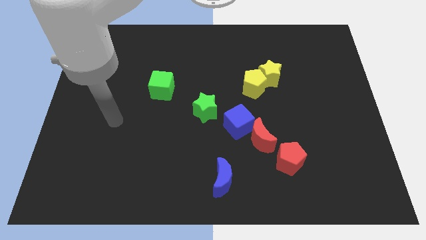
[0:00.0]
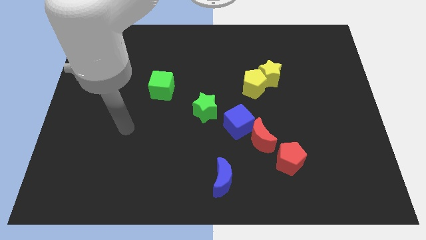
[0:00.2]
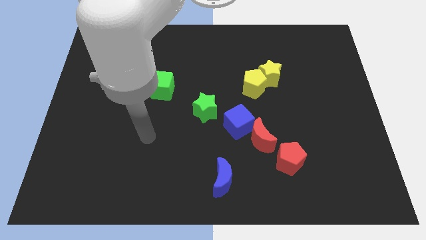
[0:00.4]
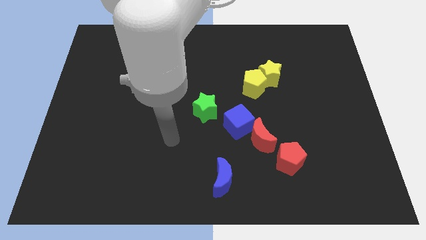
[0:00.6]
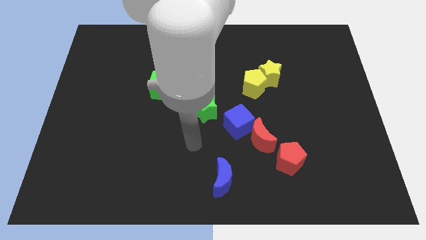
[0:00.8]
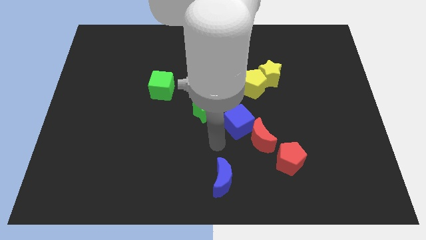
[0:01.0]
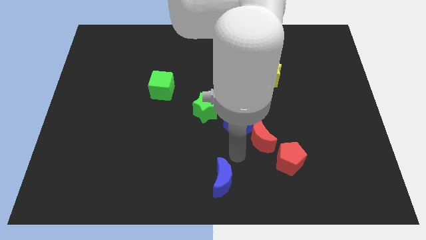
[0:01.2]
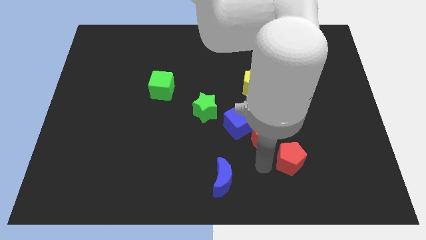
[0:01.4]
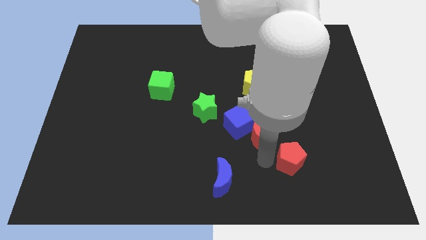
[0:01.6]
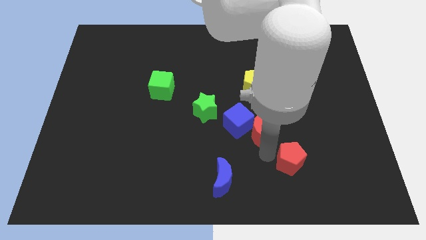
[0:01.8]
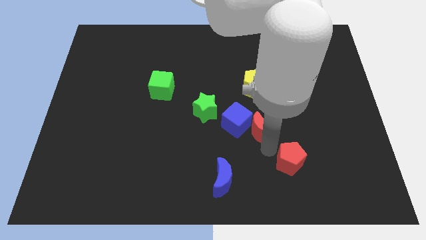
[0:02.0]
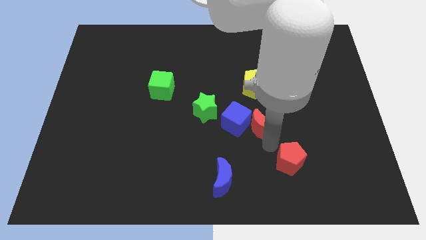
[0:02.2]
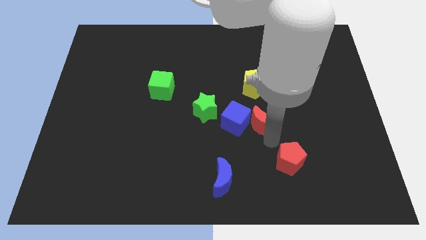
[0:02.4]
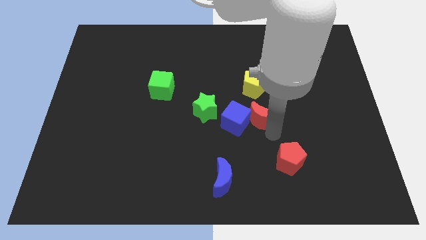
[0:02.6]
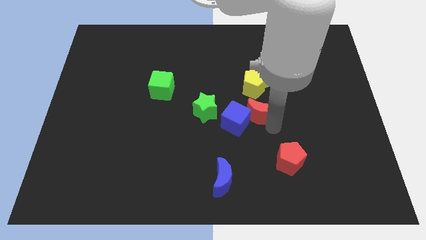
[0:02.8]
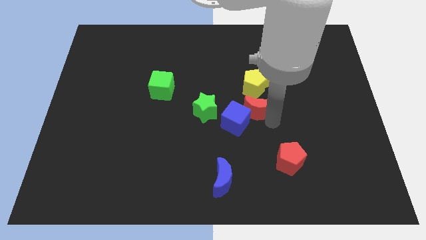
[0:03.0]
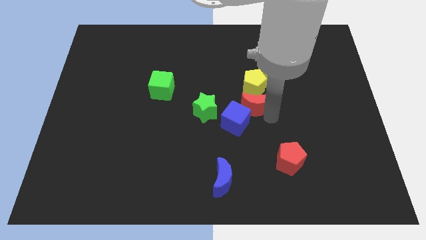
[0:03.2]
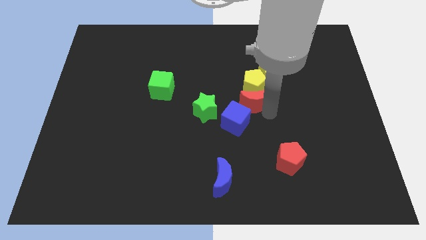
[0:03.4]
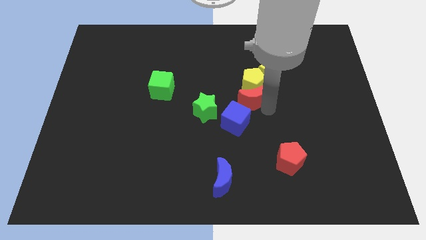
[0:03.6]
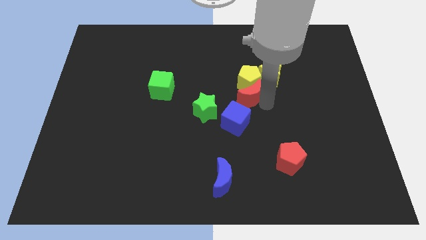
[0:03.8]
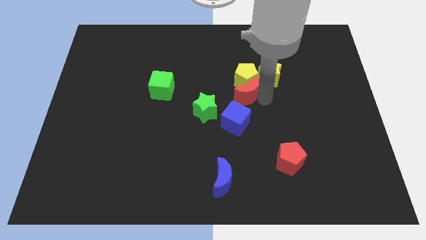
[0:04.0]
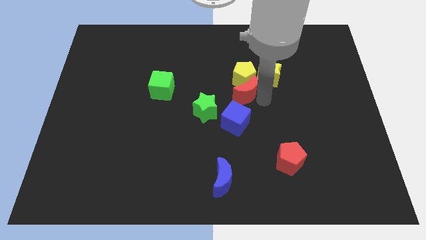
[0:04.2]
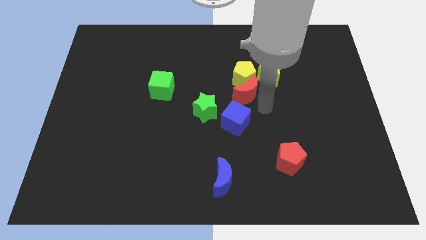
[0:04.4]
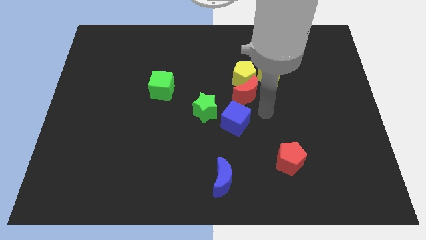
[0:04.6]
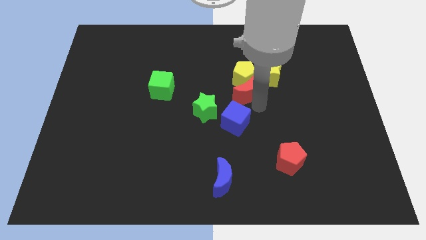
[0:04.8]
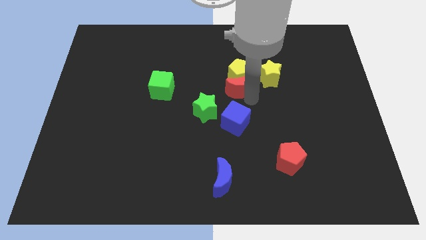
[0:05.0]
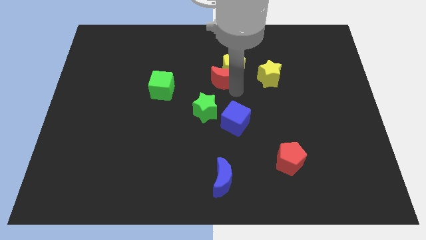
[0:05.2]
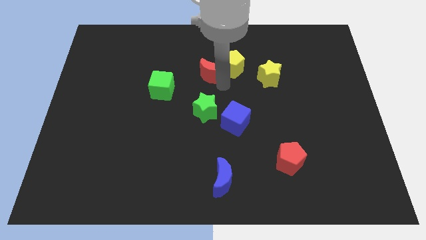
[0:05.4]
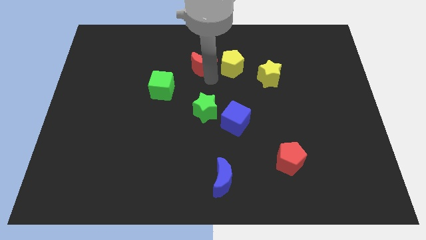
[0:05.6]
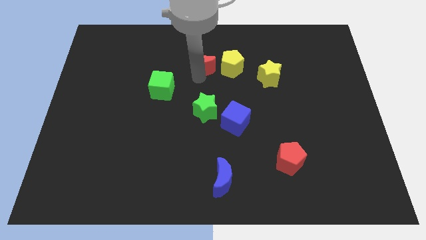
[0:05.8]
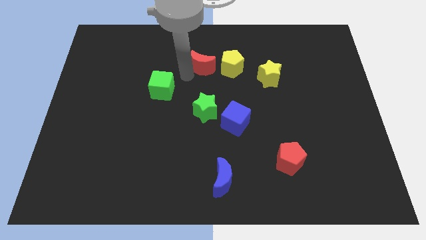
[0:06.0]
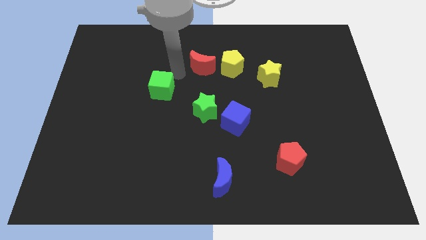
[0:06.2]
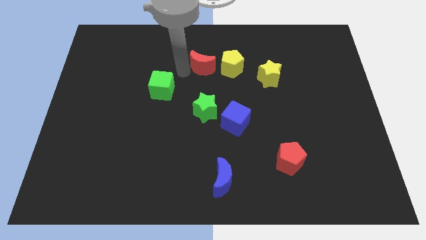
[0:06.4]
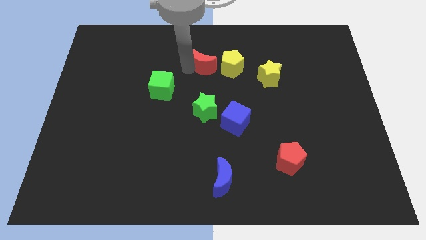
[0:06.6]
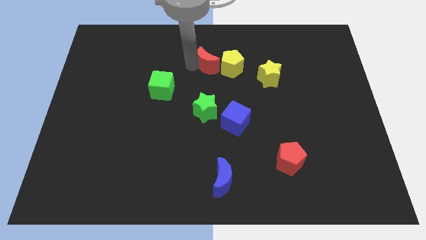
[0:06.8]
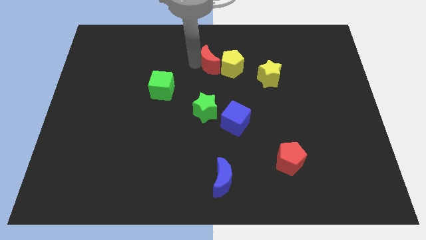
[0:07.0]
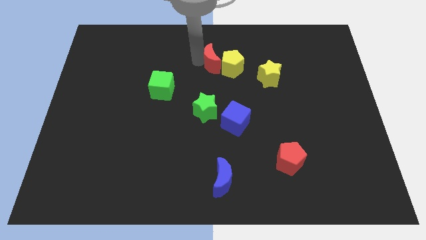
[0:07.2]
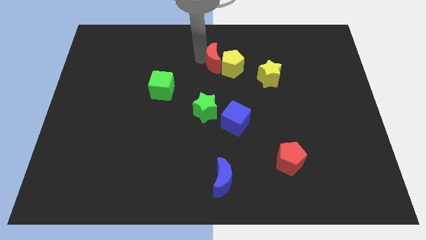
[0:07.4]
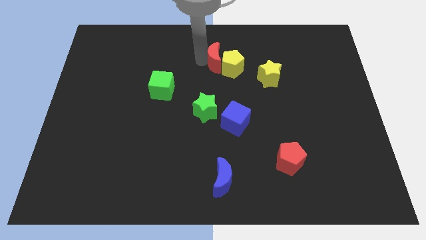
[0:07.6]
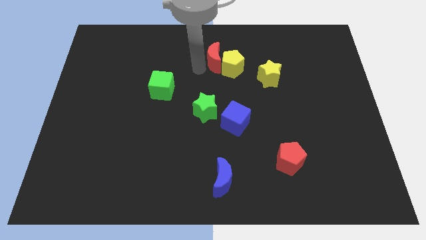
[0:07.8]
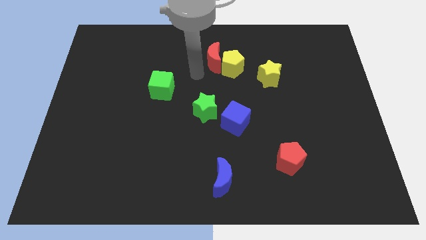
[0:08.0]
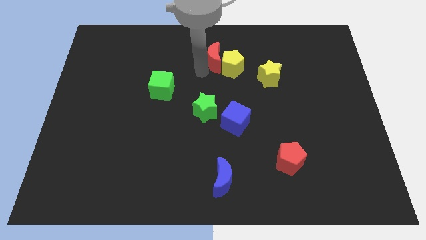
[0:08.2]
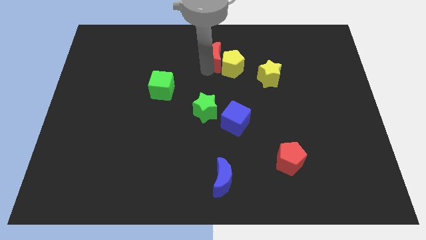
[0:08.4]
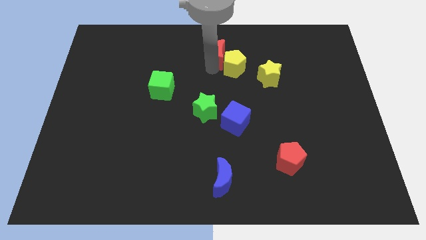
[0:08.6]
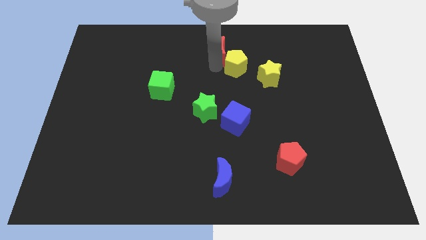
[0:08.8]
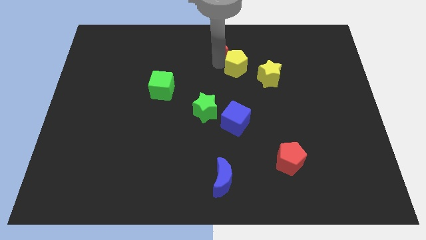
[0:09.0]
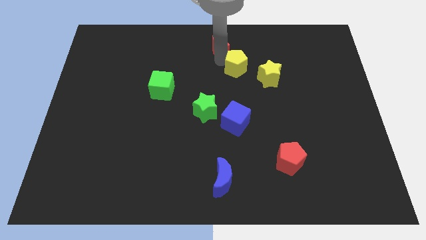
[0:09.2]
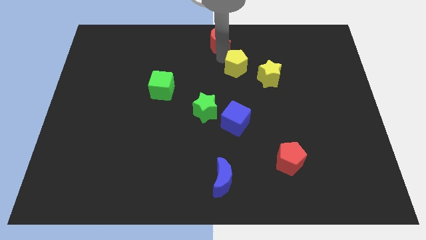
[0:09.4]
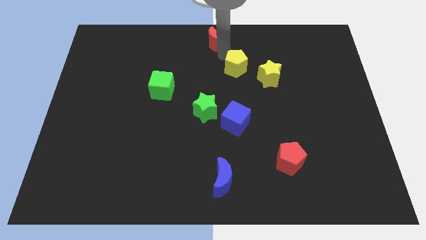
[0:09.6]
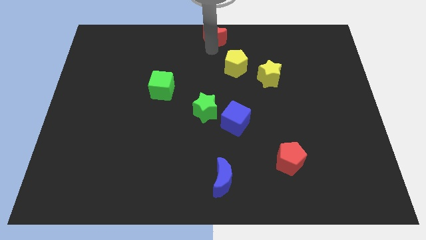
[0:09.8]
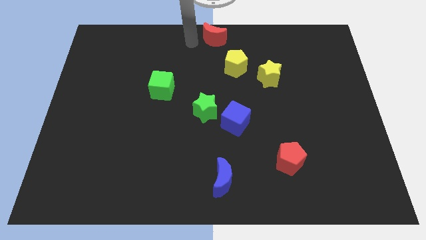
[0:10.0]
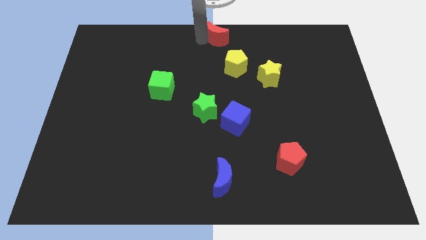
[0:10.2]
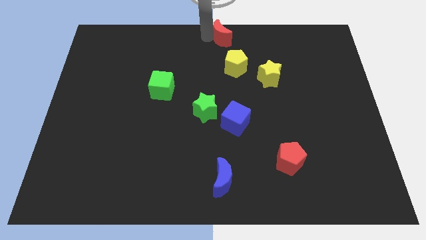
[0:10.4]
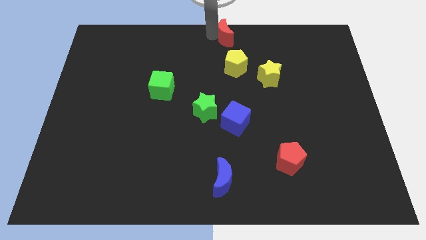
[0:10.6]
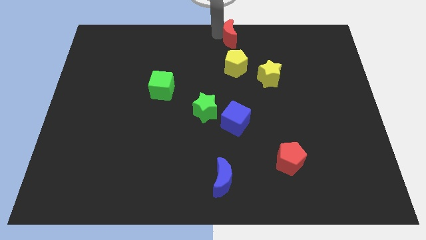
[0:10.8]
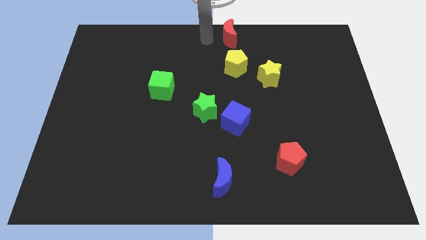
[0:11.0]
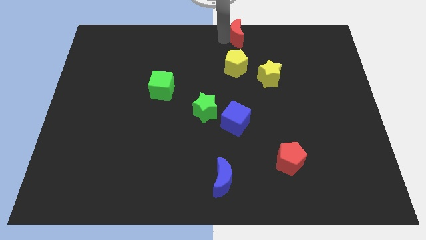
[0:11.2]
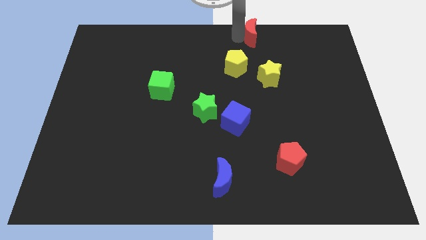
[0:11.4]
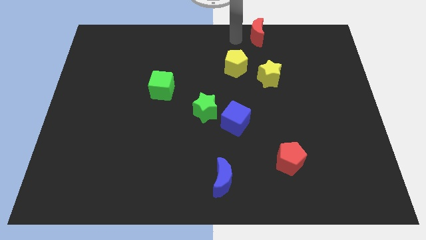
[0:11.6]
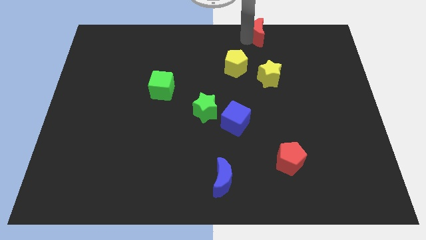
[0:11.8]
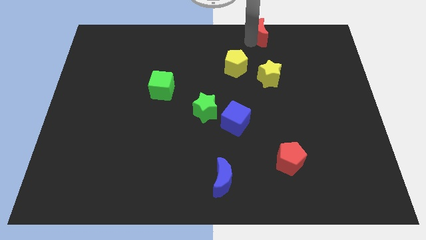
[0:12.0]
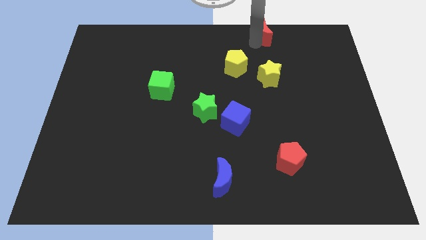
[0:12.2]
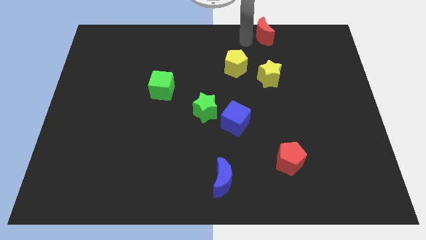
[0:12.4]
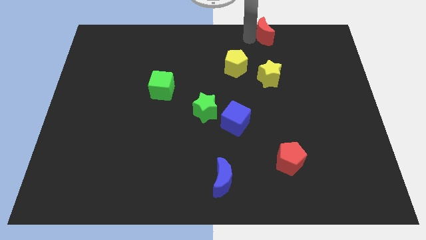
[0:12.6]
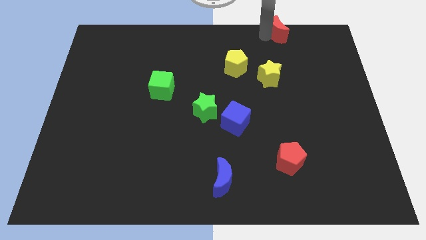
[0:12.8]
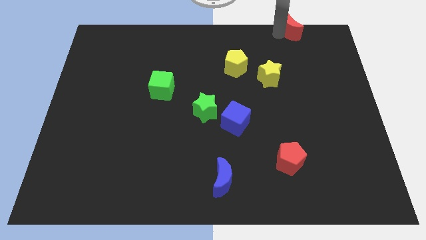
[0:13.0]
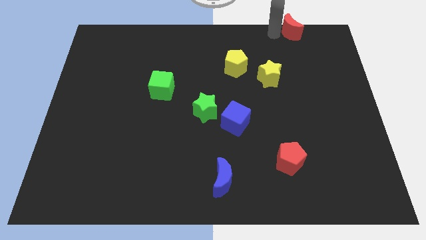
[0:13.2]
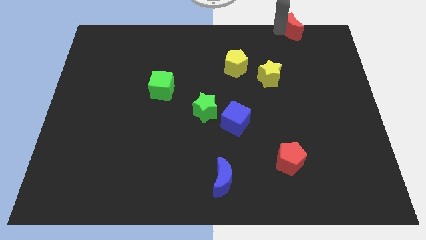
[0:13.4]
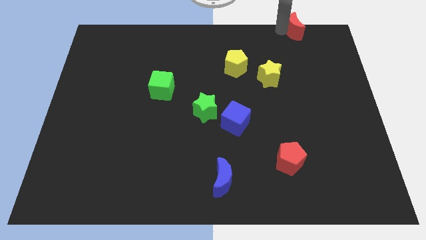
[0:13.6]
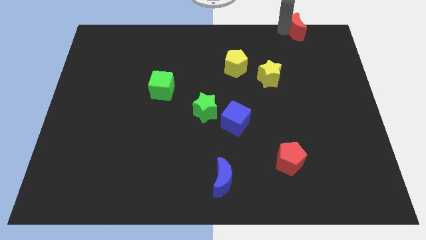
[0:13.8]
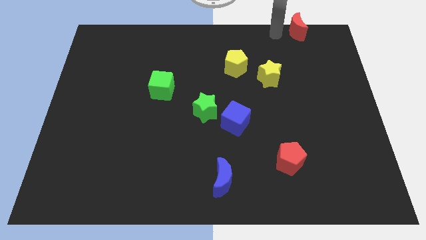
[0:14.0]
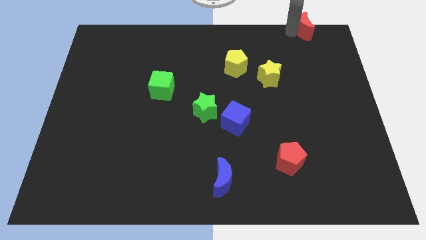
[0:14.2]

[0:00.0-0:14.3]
move the red moon to the top right corner
